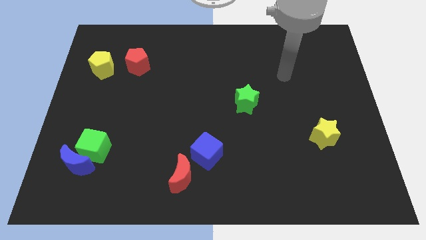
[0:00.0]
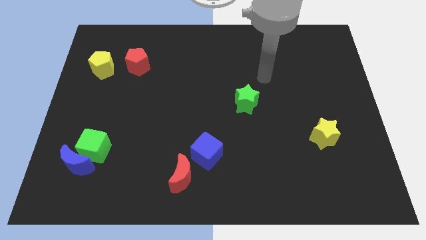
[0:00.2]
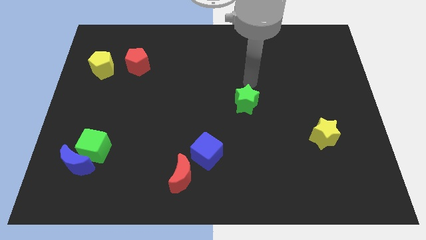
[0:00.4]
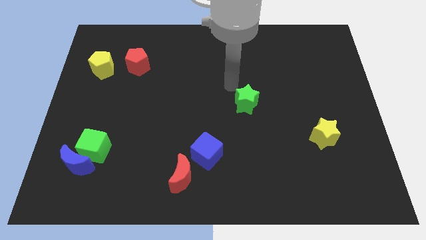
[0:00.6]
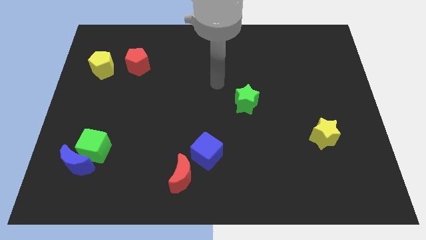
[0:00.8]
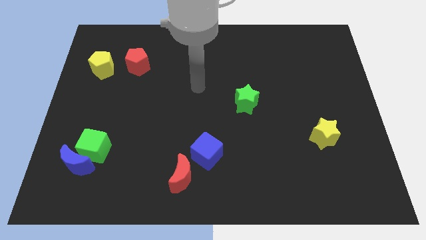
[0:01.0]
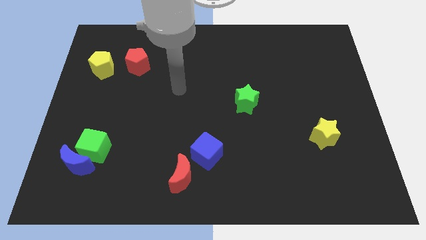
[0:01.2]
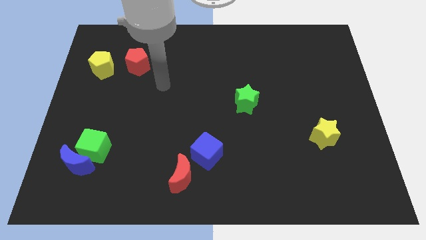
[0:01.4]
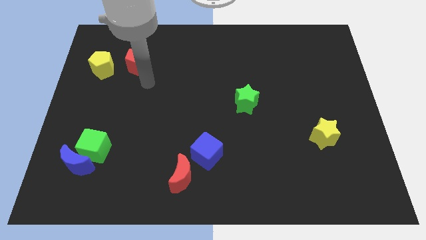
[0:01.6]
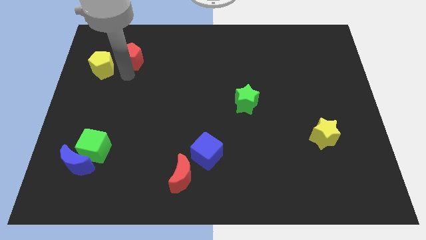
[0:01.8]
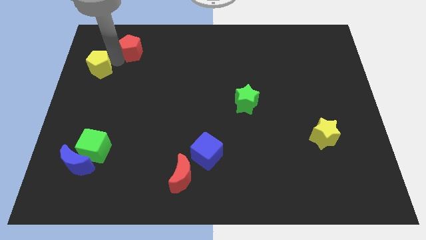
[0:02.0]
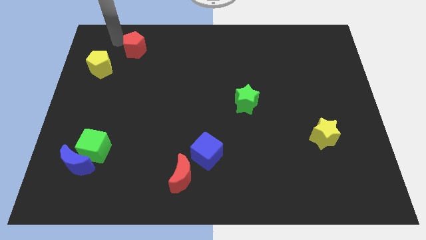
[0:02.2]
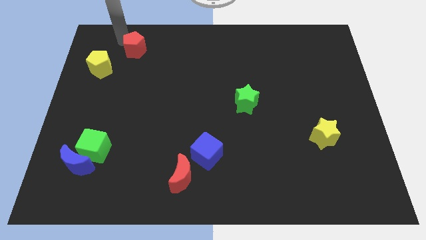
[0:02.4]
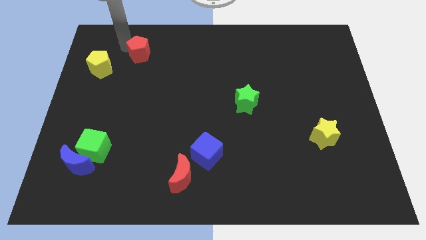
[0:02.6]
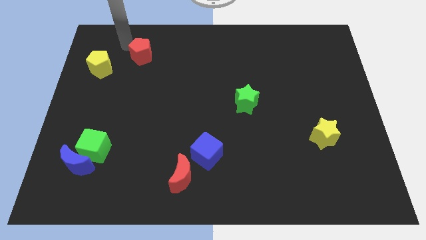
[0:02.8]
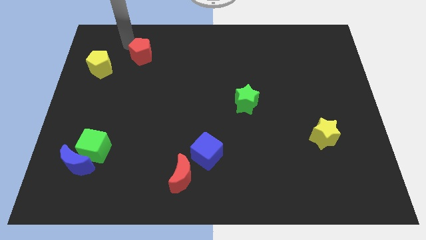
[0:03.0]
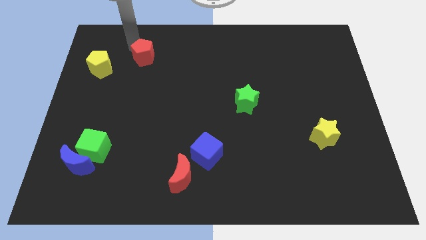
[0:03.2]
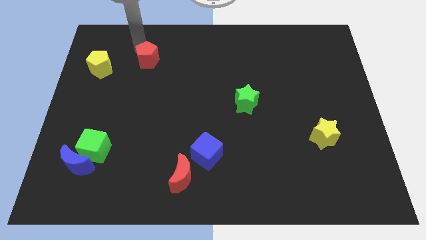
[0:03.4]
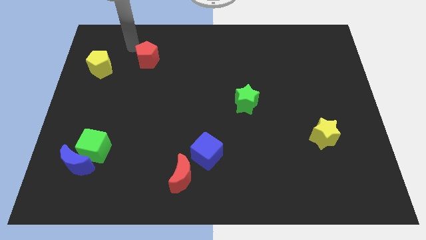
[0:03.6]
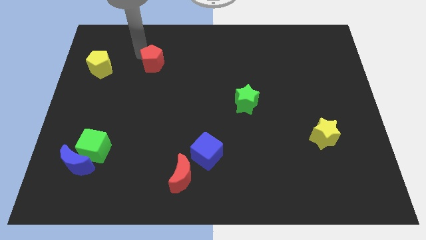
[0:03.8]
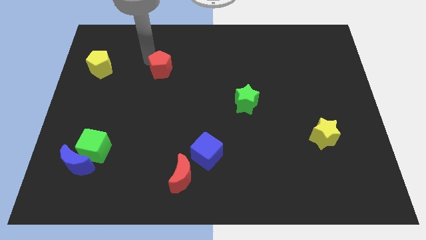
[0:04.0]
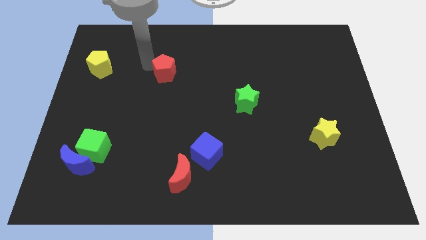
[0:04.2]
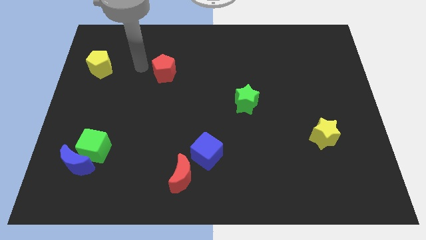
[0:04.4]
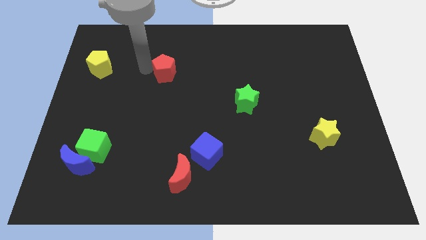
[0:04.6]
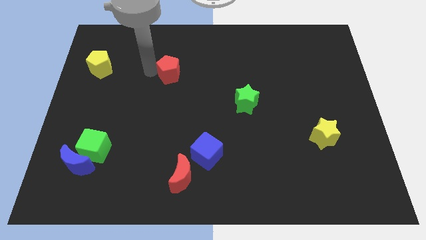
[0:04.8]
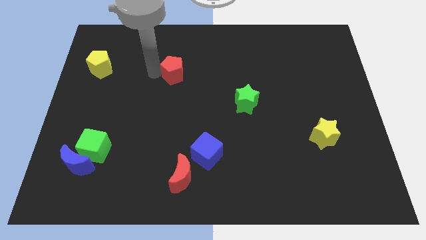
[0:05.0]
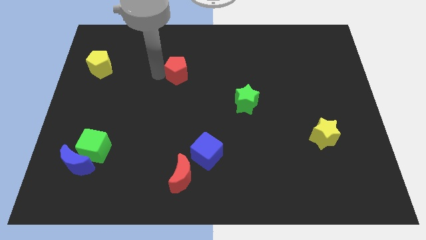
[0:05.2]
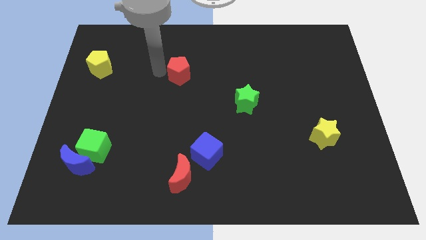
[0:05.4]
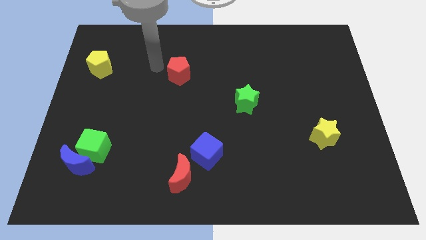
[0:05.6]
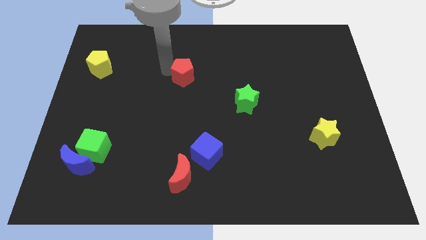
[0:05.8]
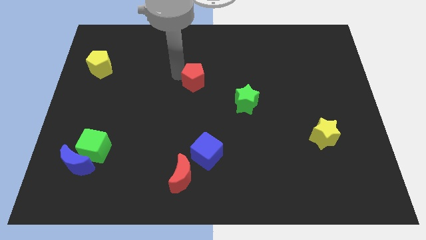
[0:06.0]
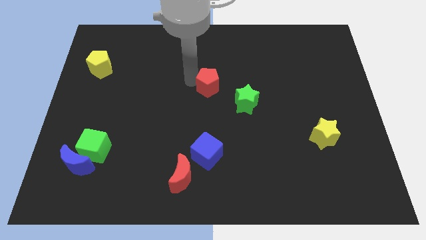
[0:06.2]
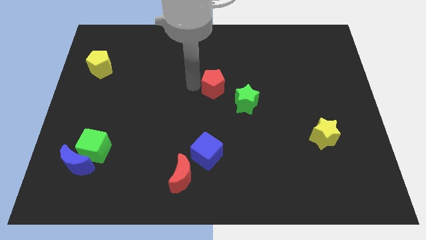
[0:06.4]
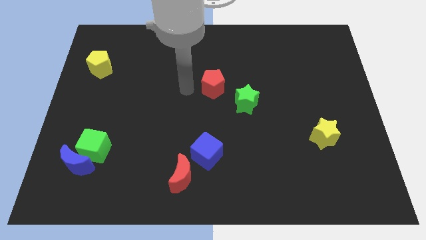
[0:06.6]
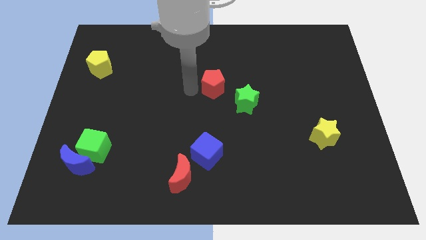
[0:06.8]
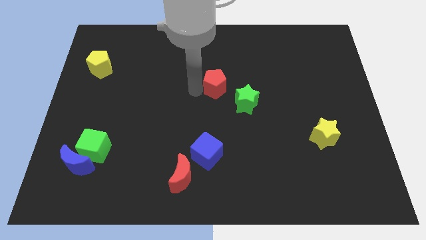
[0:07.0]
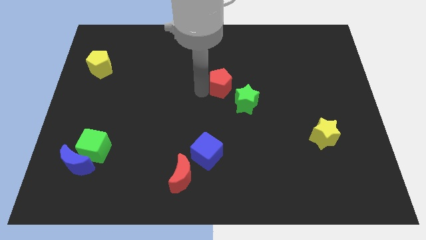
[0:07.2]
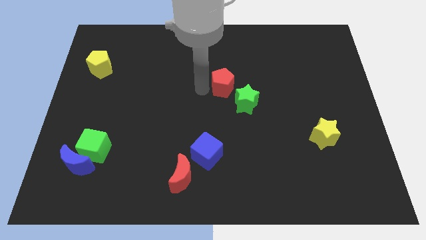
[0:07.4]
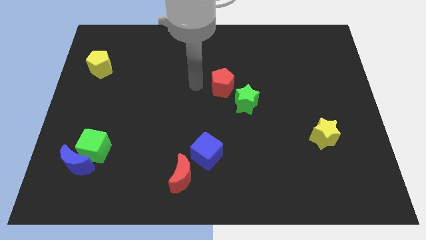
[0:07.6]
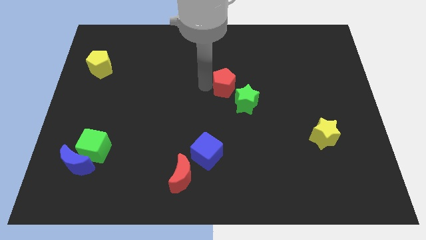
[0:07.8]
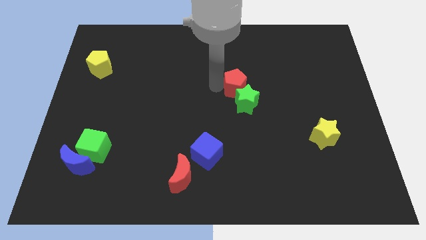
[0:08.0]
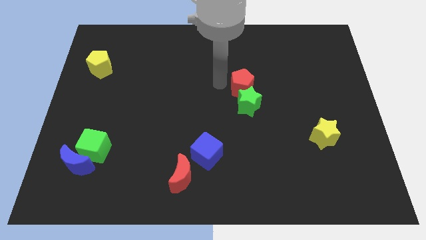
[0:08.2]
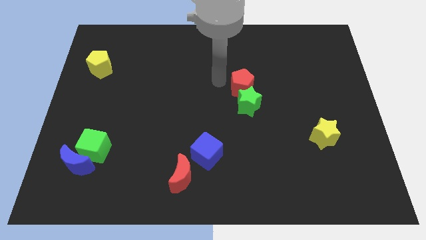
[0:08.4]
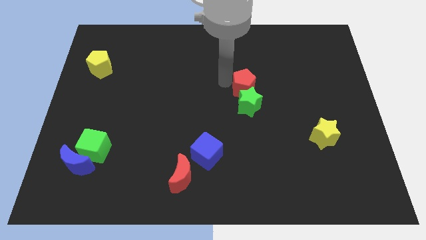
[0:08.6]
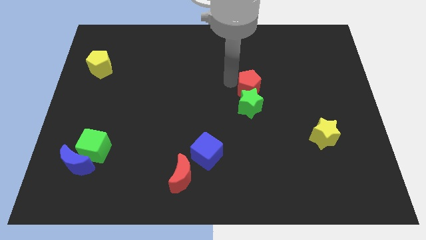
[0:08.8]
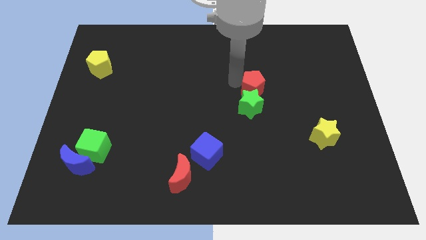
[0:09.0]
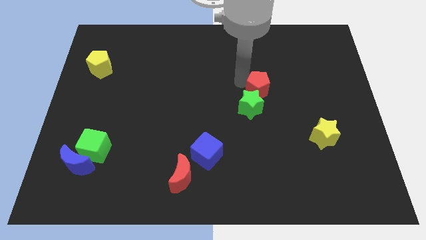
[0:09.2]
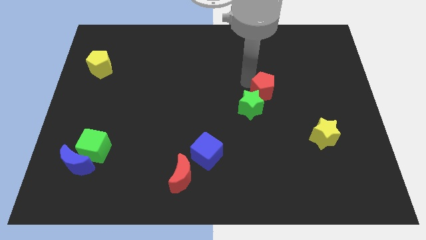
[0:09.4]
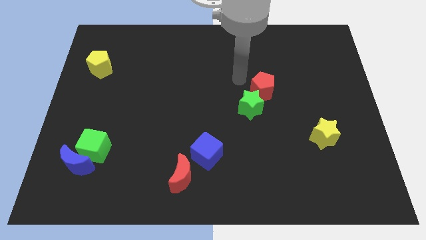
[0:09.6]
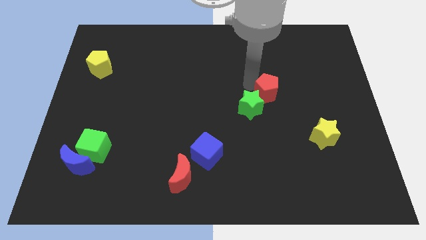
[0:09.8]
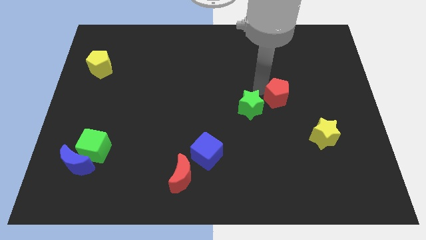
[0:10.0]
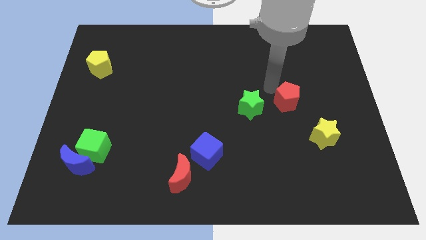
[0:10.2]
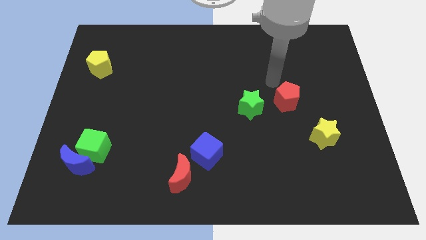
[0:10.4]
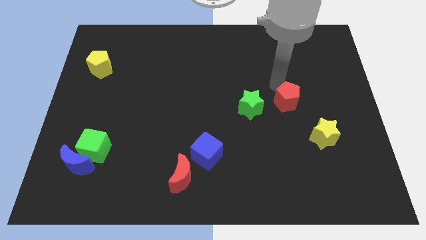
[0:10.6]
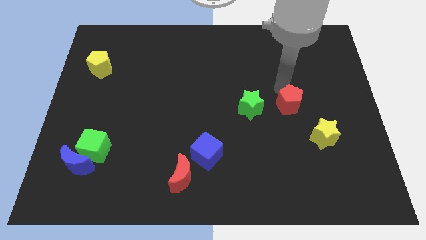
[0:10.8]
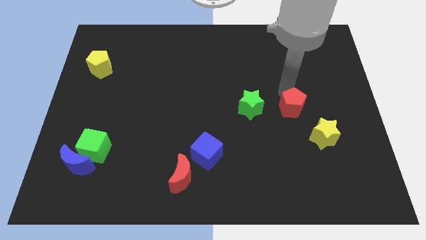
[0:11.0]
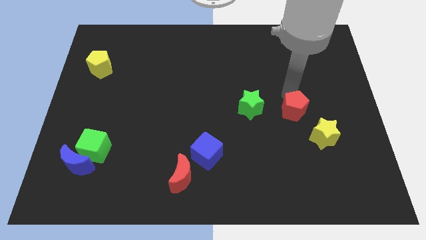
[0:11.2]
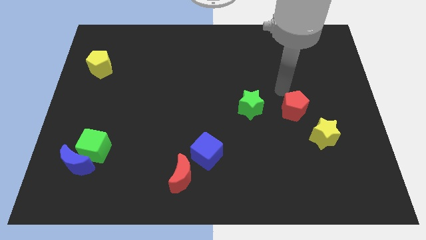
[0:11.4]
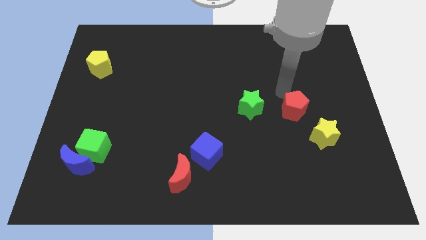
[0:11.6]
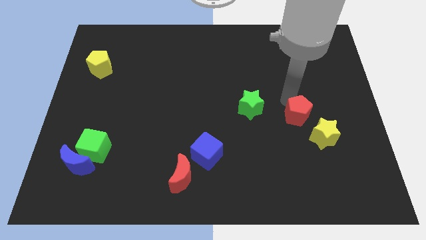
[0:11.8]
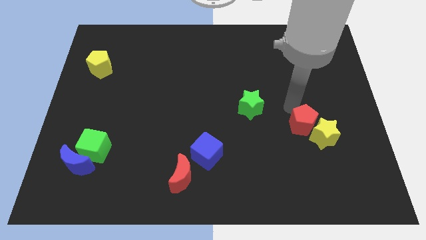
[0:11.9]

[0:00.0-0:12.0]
push the red pentagon next to the yellow star
